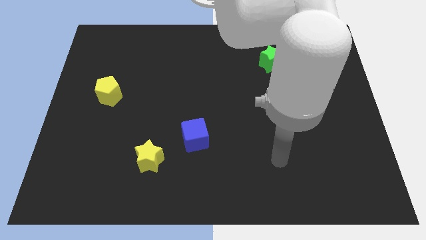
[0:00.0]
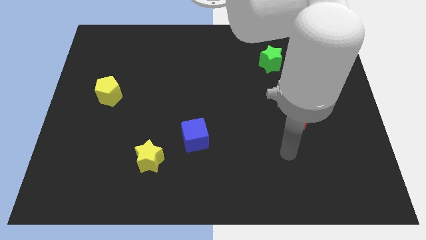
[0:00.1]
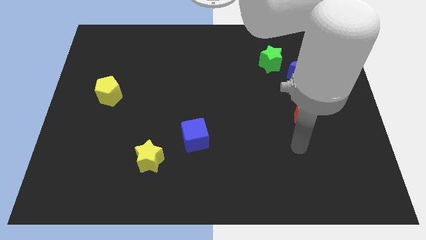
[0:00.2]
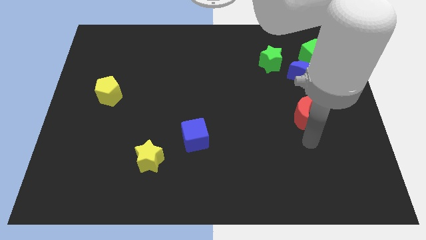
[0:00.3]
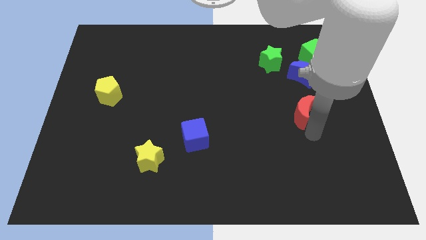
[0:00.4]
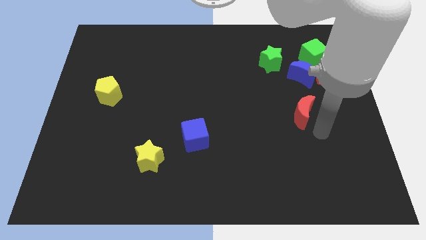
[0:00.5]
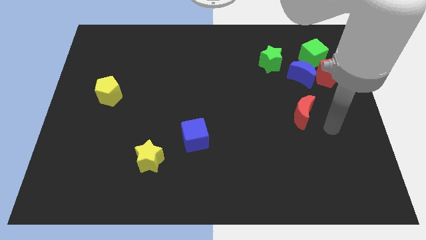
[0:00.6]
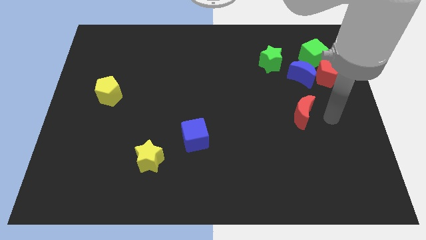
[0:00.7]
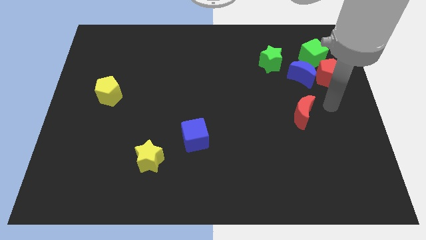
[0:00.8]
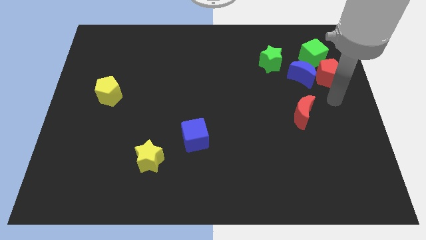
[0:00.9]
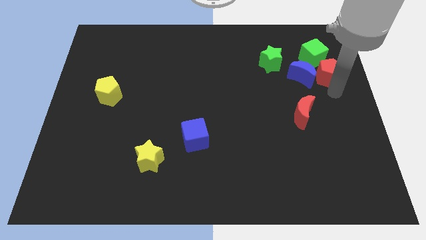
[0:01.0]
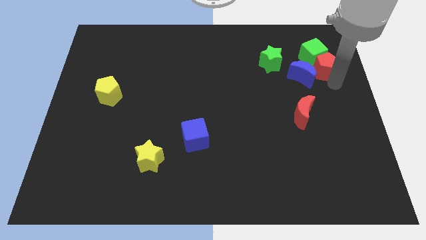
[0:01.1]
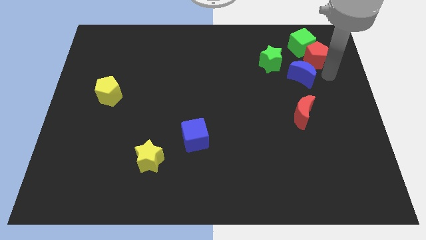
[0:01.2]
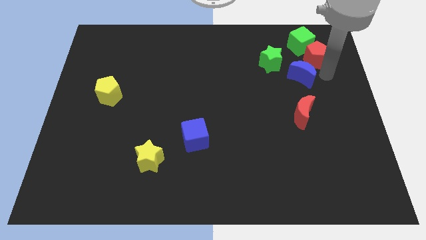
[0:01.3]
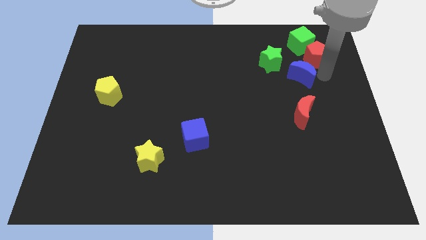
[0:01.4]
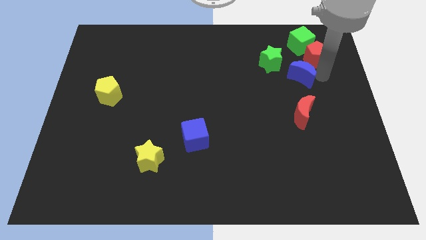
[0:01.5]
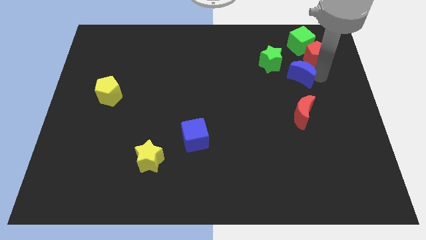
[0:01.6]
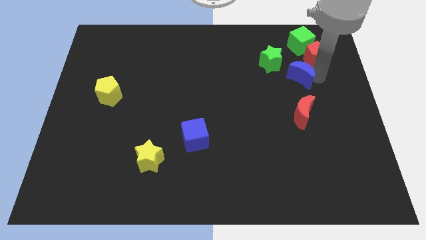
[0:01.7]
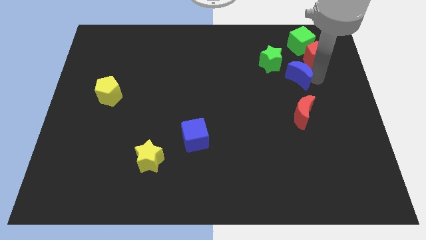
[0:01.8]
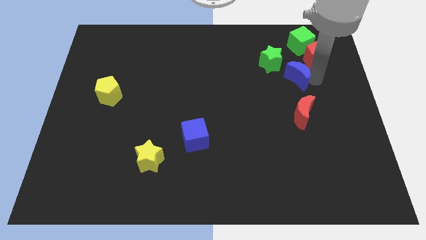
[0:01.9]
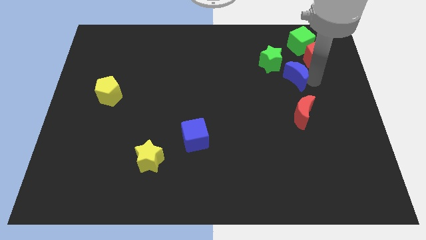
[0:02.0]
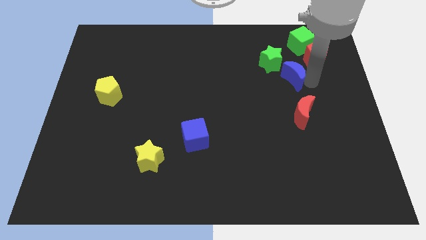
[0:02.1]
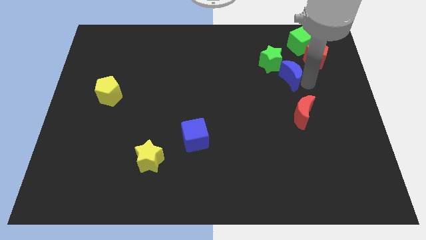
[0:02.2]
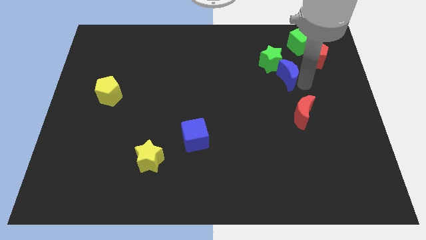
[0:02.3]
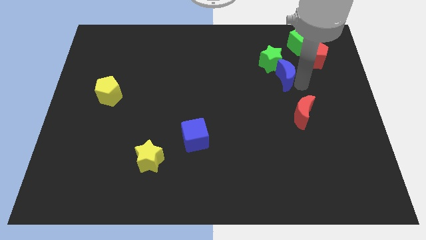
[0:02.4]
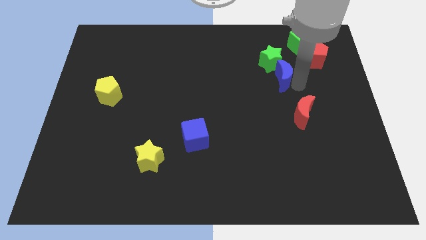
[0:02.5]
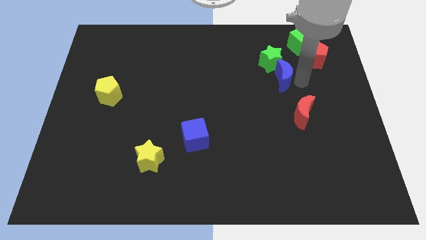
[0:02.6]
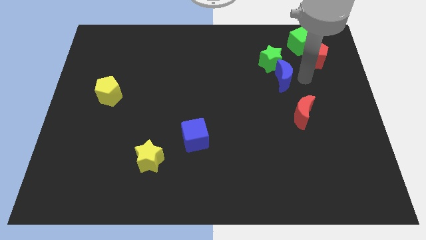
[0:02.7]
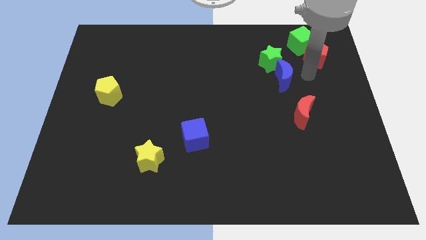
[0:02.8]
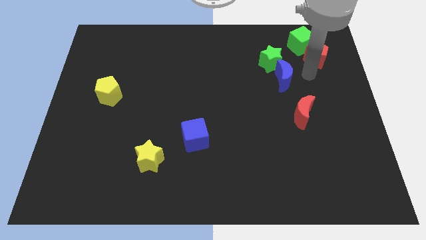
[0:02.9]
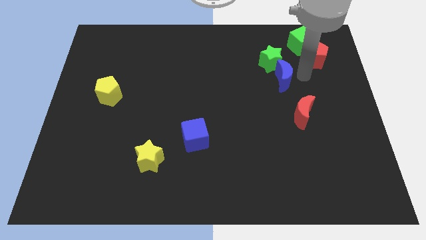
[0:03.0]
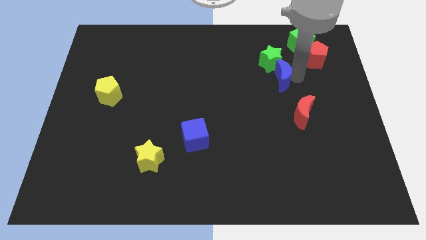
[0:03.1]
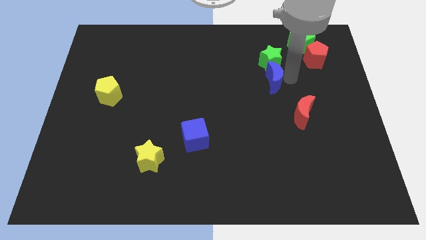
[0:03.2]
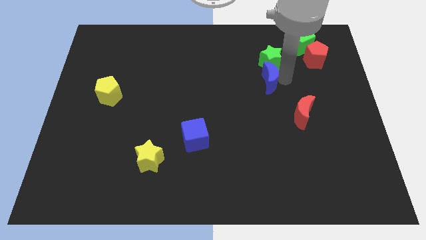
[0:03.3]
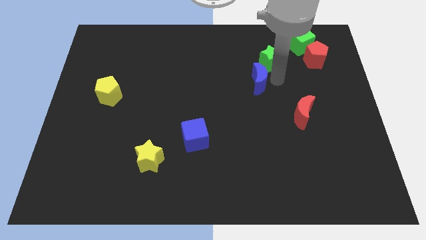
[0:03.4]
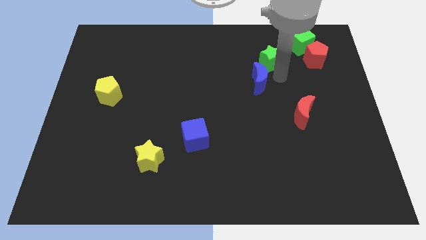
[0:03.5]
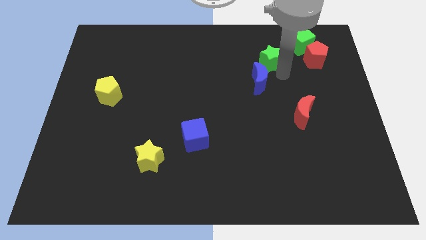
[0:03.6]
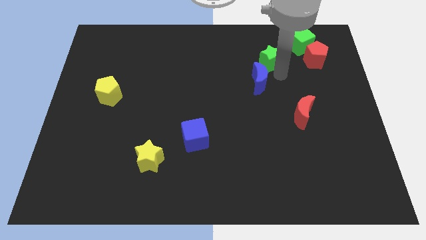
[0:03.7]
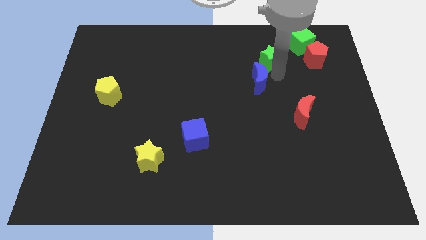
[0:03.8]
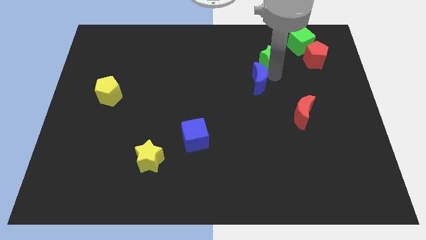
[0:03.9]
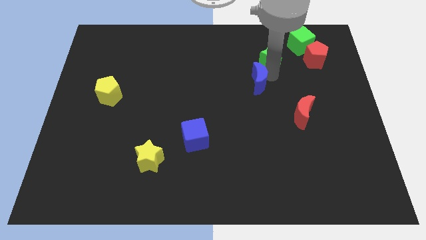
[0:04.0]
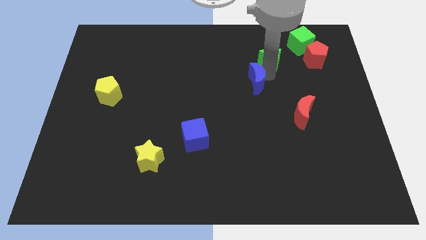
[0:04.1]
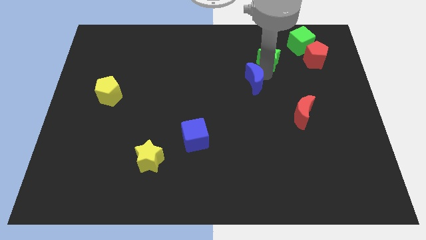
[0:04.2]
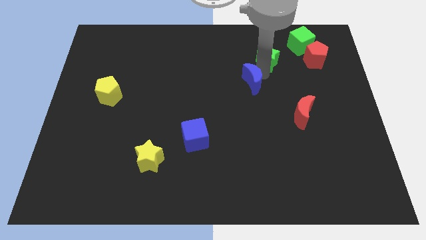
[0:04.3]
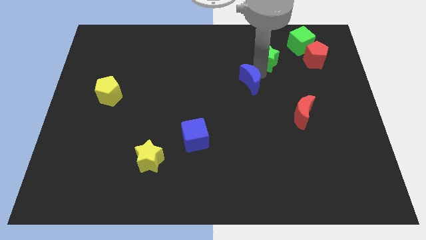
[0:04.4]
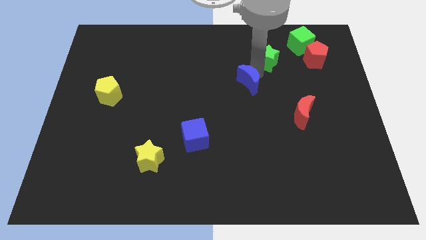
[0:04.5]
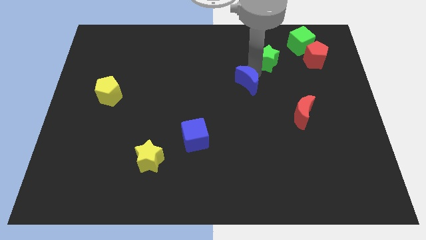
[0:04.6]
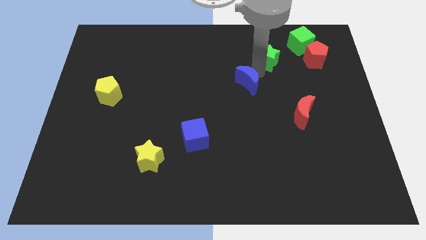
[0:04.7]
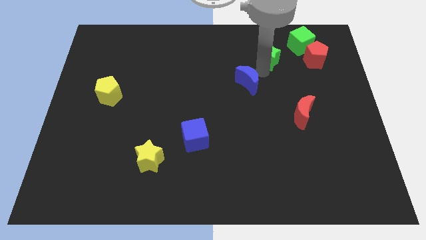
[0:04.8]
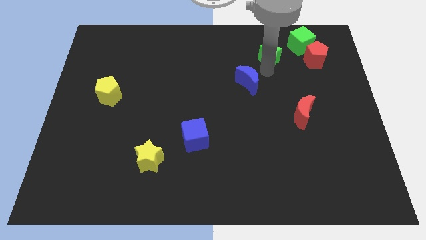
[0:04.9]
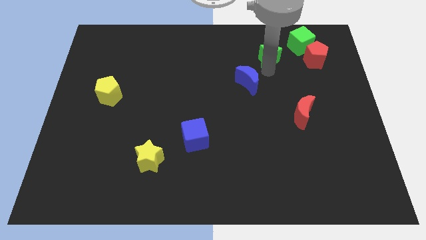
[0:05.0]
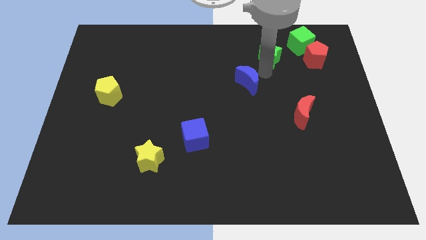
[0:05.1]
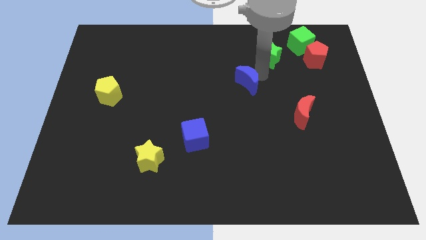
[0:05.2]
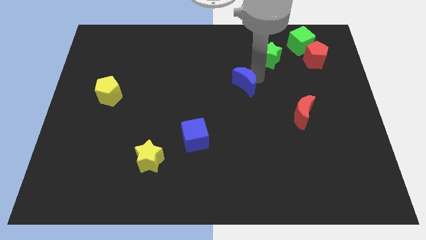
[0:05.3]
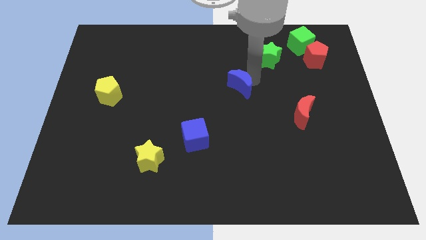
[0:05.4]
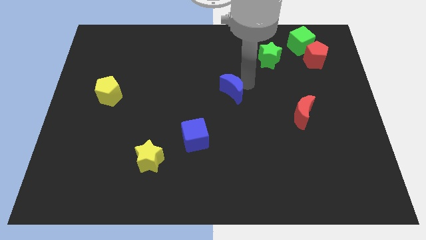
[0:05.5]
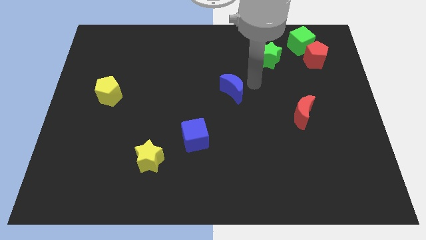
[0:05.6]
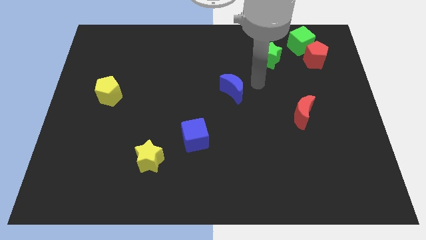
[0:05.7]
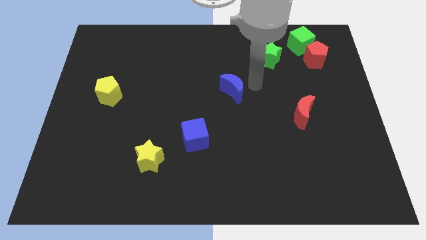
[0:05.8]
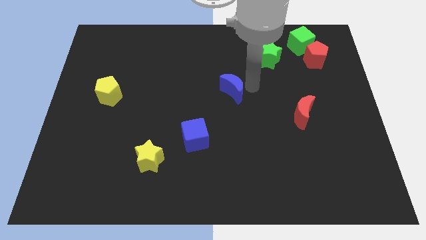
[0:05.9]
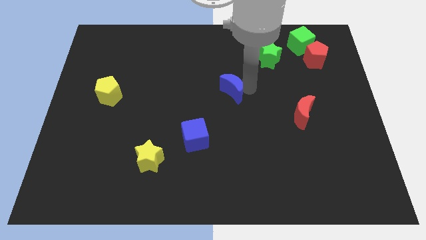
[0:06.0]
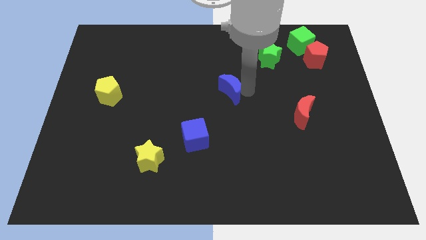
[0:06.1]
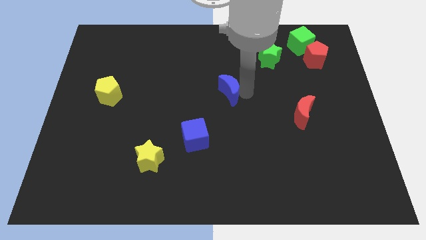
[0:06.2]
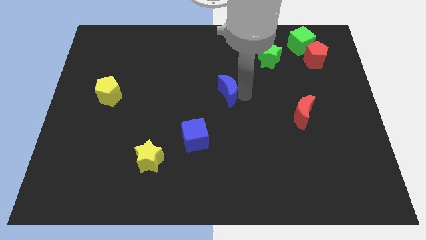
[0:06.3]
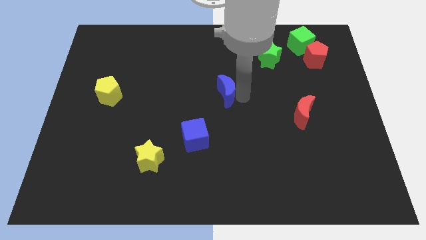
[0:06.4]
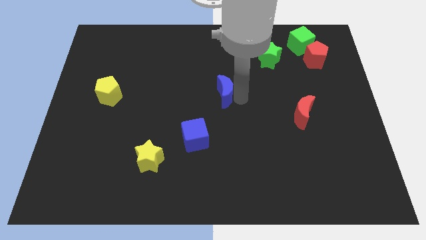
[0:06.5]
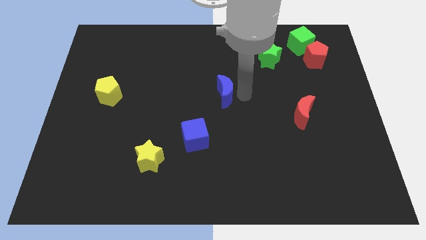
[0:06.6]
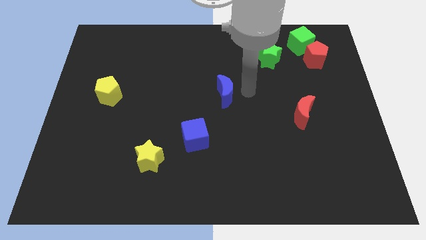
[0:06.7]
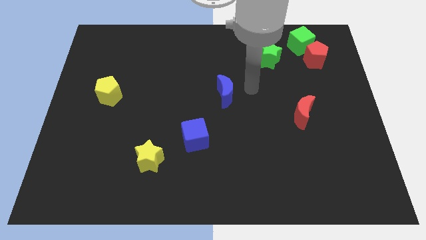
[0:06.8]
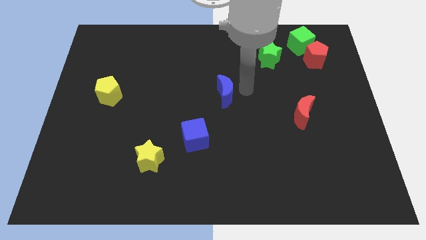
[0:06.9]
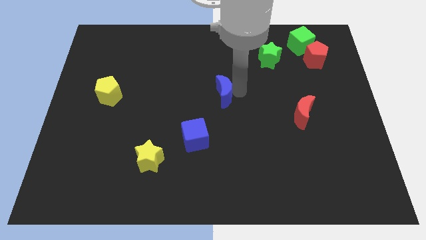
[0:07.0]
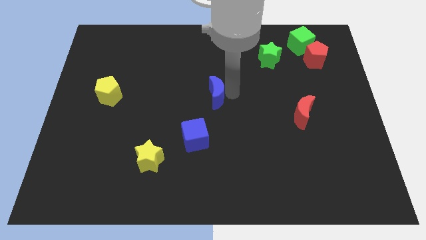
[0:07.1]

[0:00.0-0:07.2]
put the blue moon above the blue cube

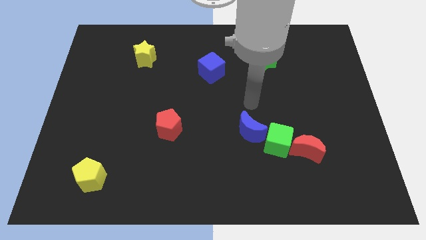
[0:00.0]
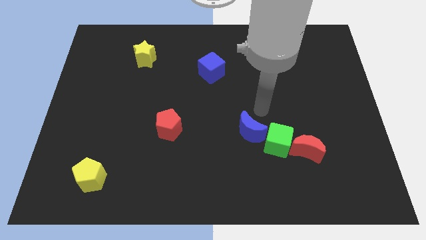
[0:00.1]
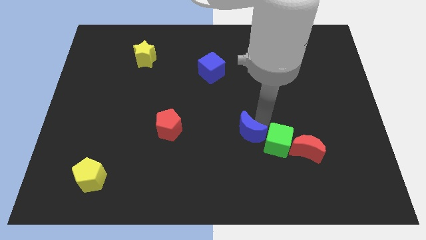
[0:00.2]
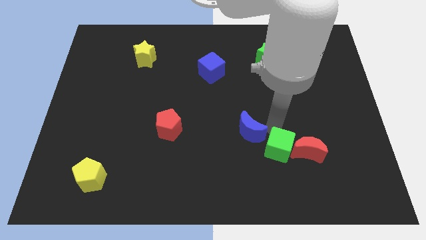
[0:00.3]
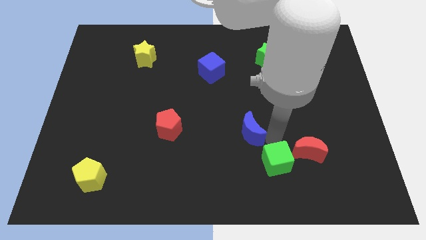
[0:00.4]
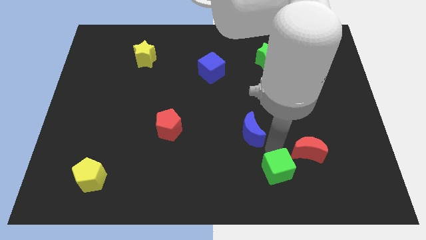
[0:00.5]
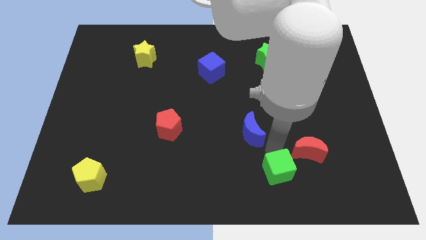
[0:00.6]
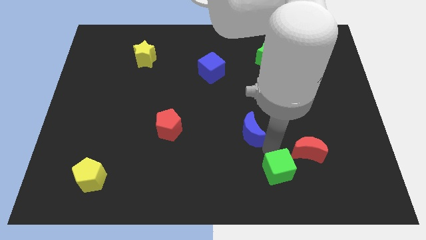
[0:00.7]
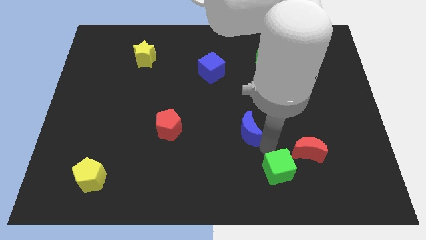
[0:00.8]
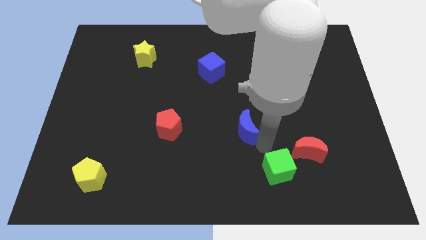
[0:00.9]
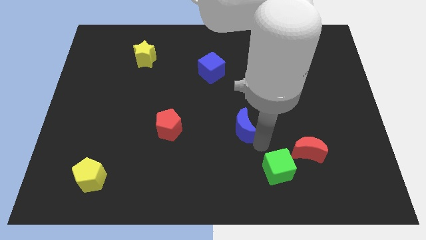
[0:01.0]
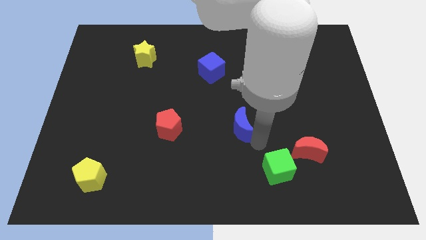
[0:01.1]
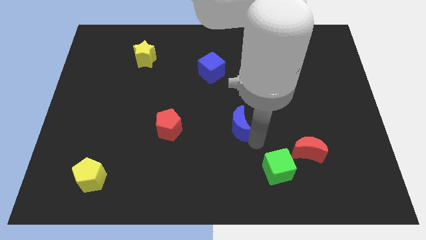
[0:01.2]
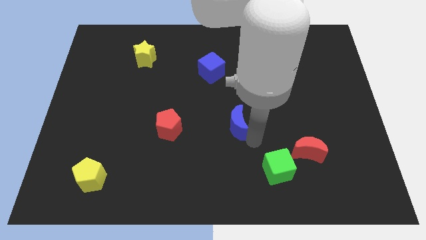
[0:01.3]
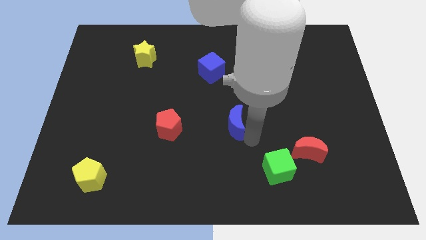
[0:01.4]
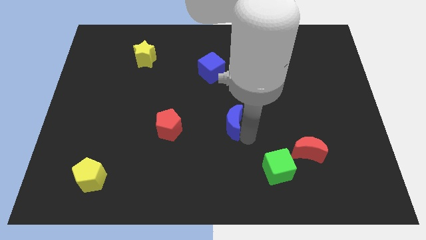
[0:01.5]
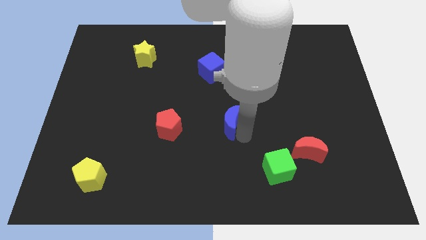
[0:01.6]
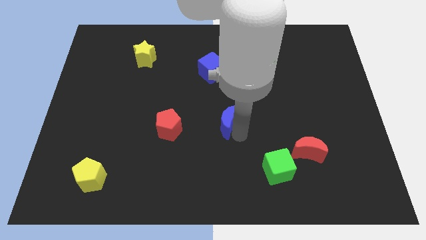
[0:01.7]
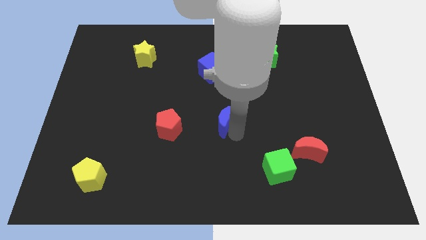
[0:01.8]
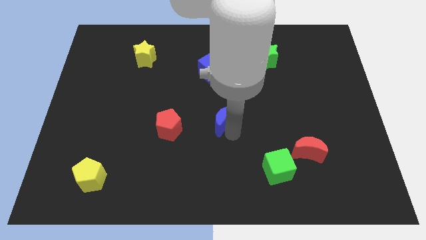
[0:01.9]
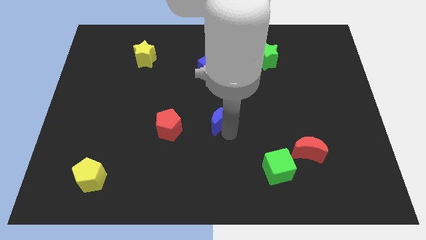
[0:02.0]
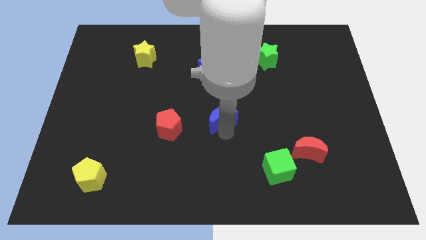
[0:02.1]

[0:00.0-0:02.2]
move the blue moon to the bottom of the blue cube
